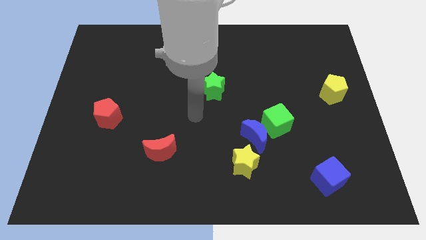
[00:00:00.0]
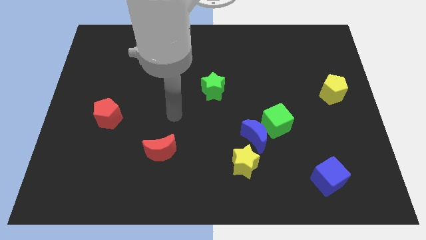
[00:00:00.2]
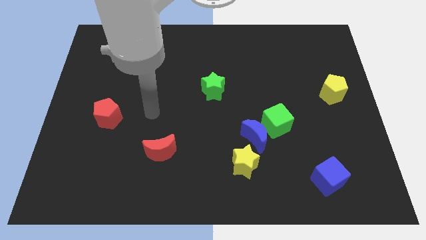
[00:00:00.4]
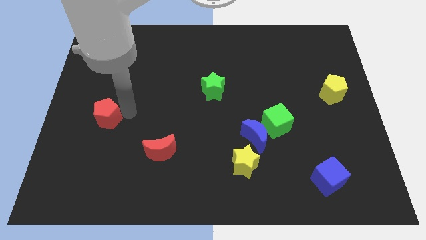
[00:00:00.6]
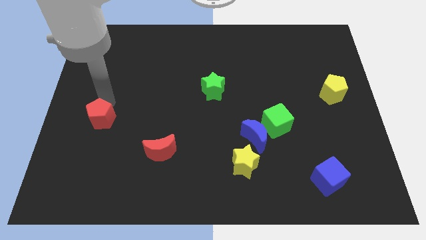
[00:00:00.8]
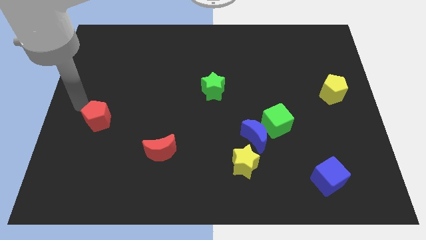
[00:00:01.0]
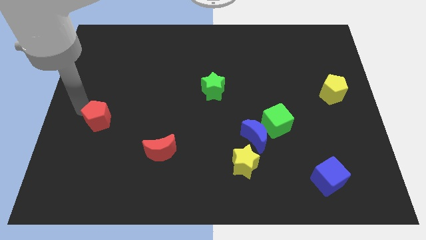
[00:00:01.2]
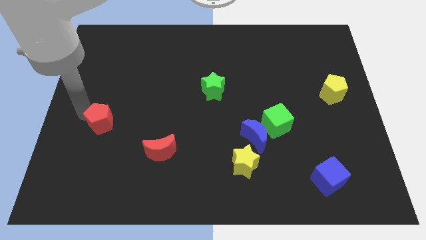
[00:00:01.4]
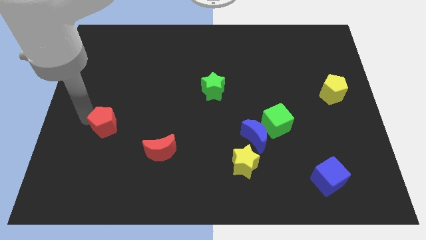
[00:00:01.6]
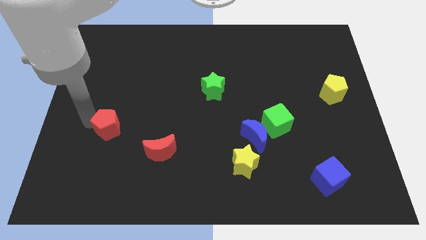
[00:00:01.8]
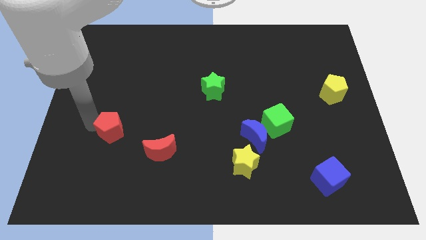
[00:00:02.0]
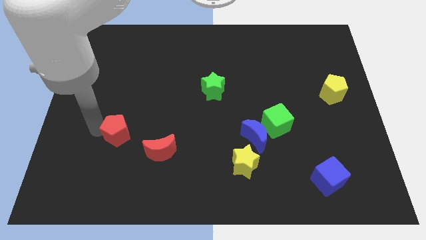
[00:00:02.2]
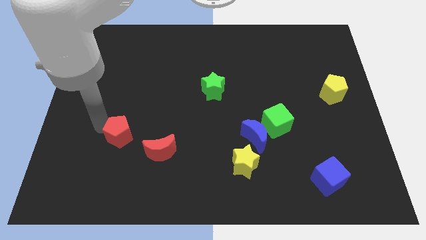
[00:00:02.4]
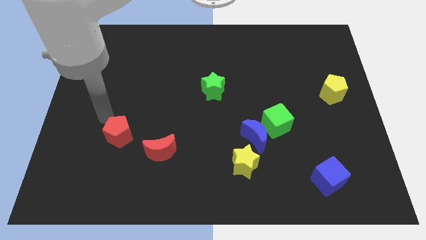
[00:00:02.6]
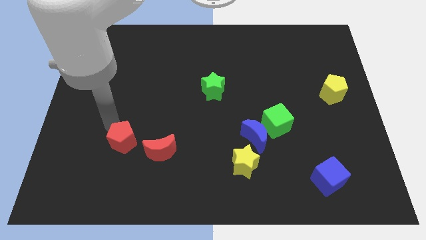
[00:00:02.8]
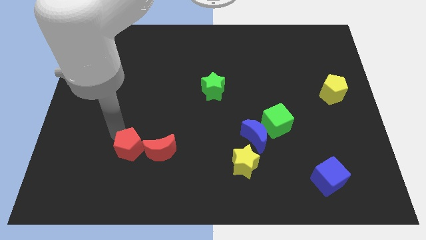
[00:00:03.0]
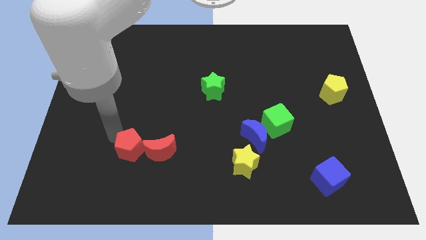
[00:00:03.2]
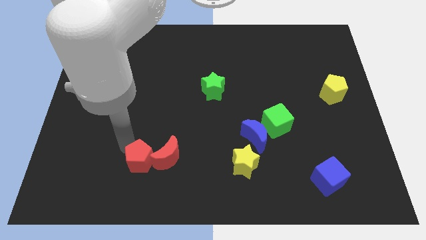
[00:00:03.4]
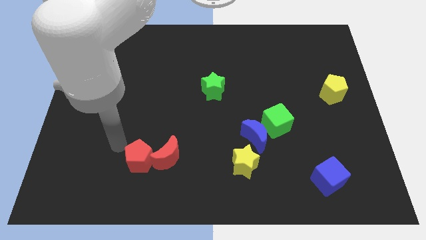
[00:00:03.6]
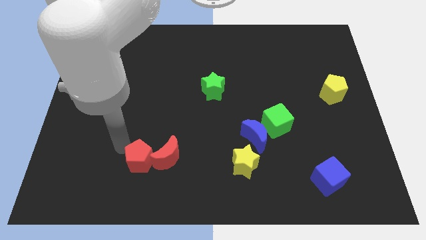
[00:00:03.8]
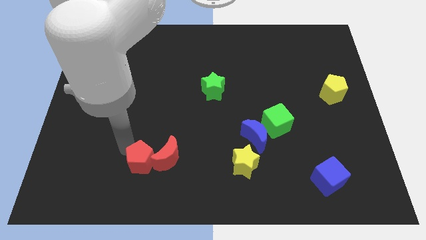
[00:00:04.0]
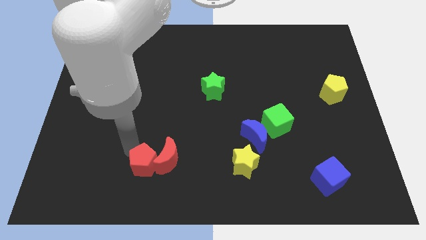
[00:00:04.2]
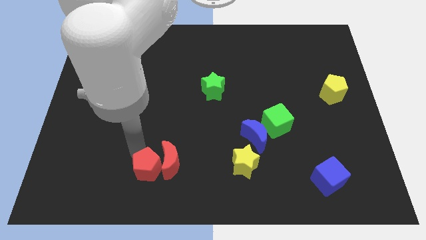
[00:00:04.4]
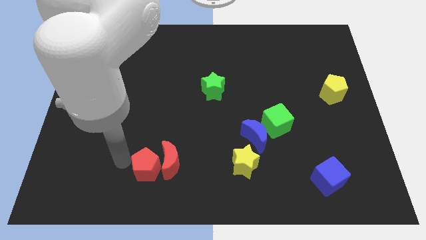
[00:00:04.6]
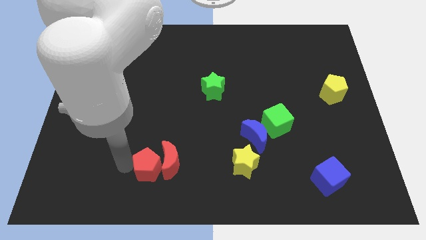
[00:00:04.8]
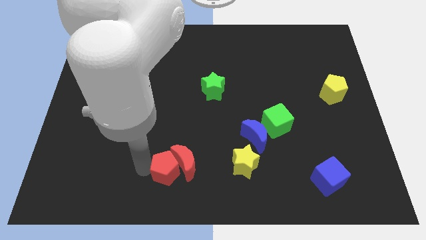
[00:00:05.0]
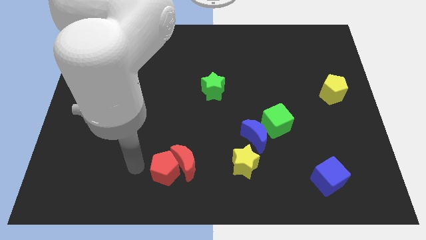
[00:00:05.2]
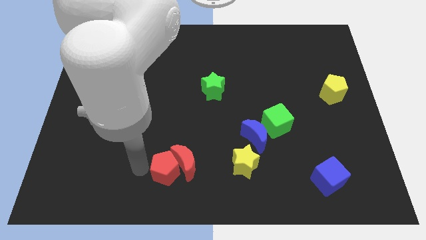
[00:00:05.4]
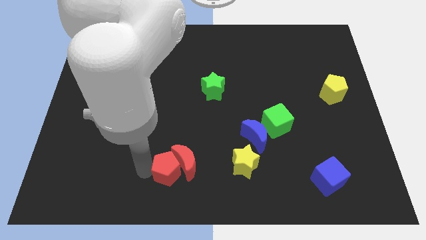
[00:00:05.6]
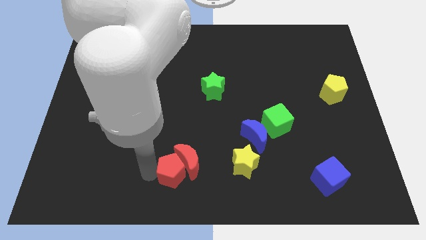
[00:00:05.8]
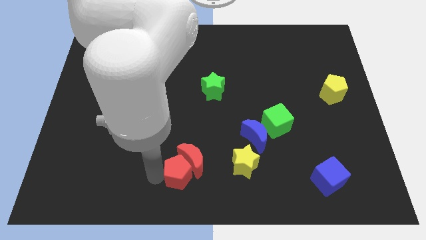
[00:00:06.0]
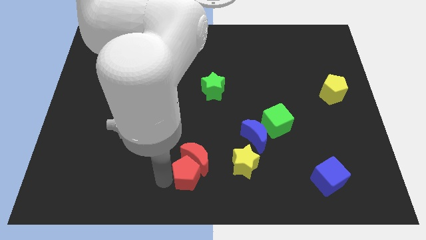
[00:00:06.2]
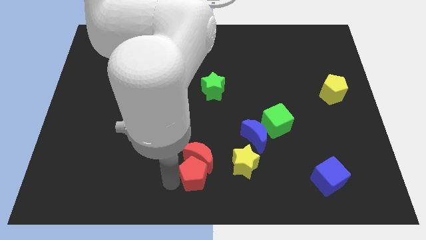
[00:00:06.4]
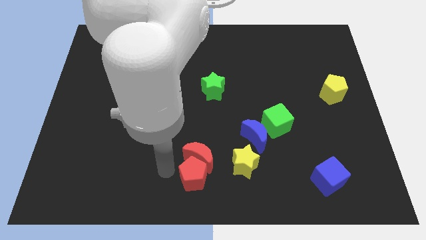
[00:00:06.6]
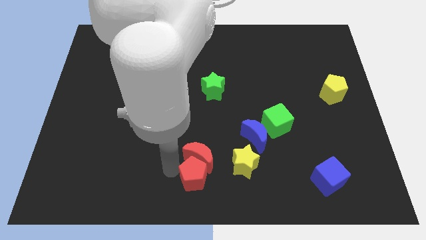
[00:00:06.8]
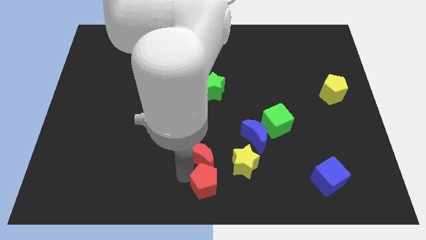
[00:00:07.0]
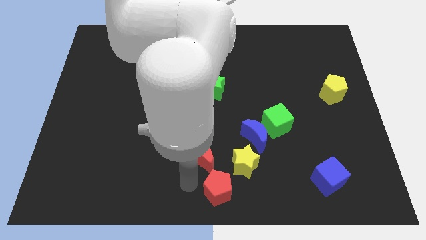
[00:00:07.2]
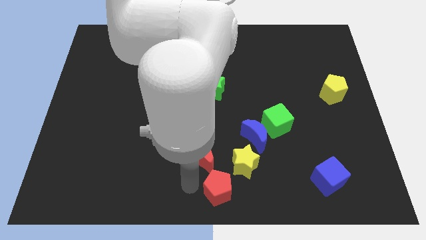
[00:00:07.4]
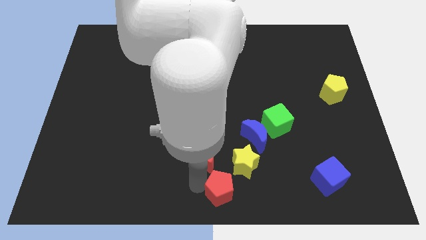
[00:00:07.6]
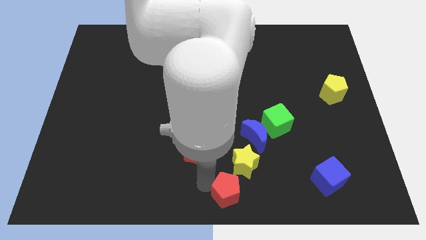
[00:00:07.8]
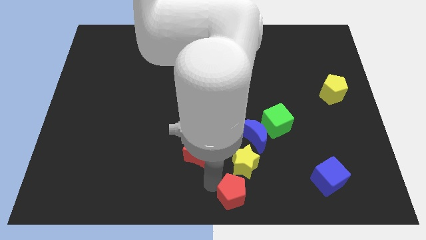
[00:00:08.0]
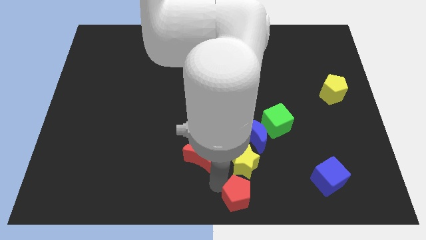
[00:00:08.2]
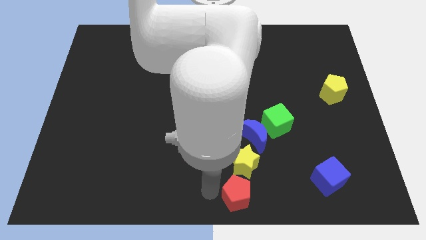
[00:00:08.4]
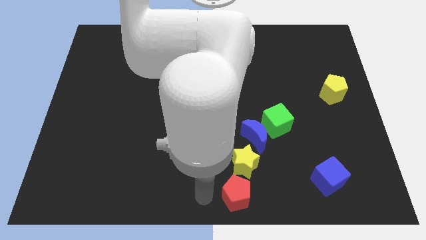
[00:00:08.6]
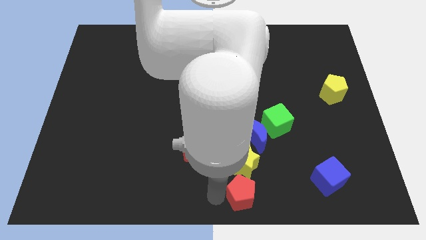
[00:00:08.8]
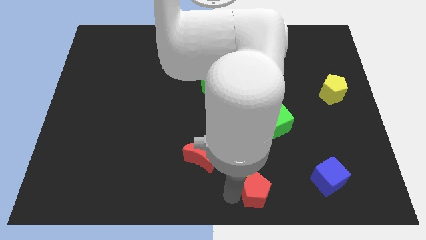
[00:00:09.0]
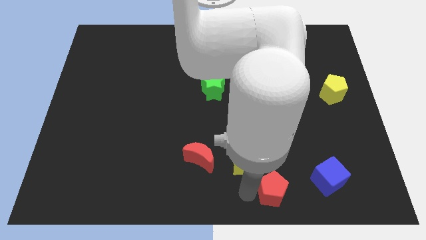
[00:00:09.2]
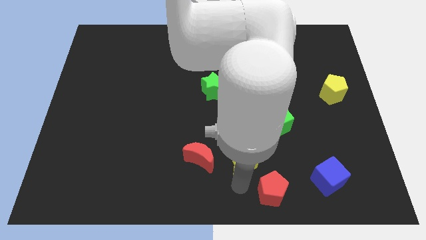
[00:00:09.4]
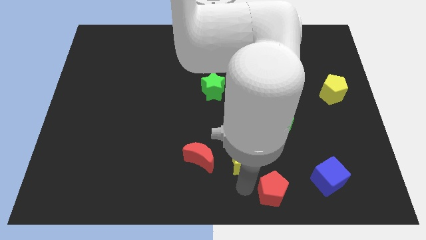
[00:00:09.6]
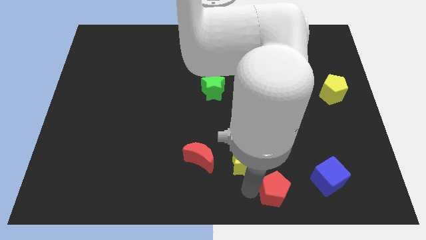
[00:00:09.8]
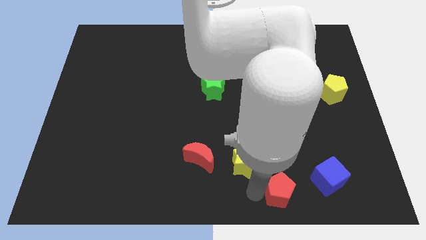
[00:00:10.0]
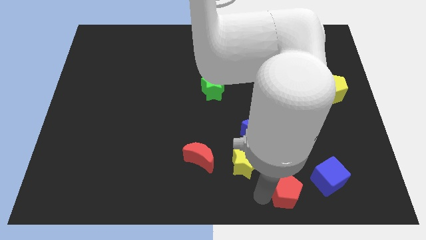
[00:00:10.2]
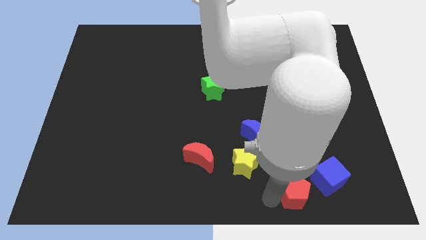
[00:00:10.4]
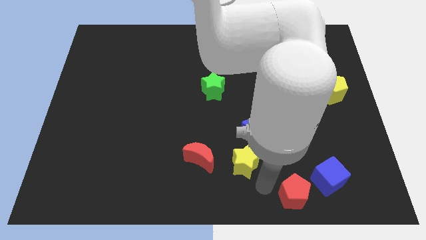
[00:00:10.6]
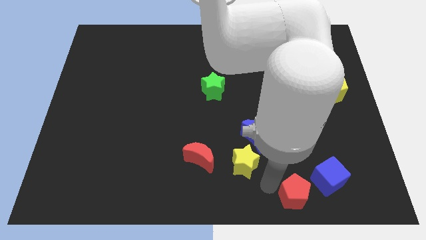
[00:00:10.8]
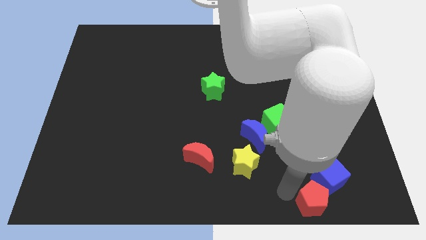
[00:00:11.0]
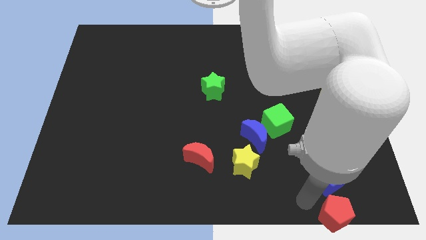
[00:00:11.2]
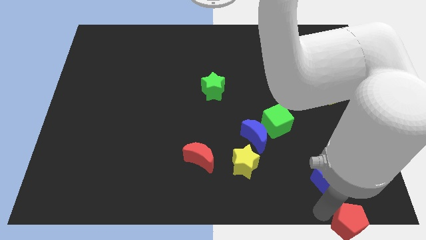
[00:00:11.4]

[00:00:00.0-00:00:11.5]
push the red pentagon to the bottom right of the board

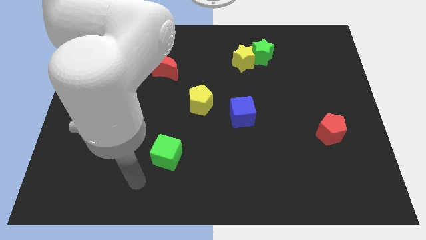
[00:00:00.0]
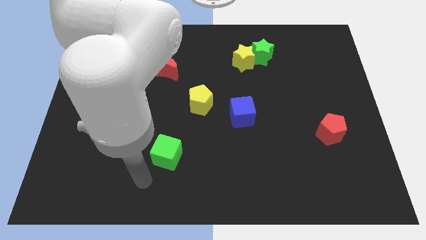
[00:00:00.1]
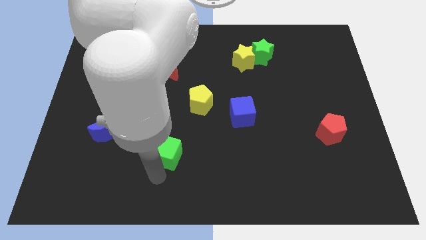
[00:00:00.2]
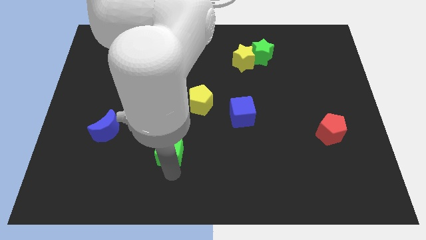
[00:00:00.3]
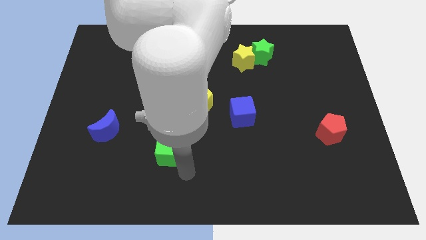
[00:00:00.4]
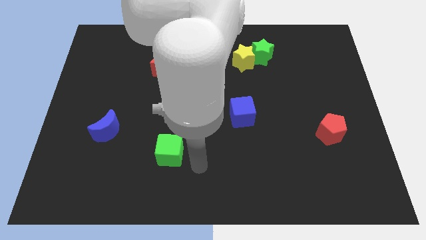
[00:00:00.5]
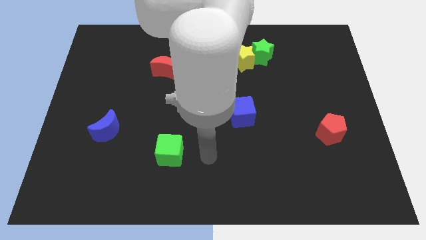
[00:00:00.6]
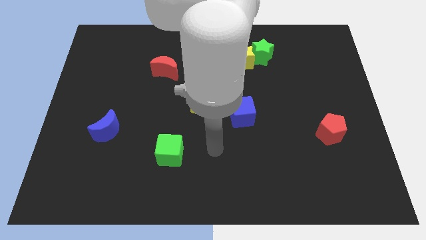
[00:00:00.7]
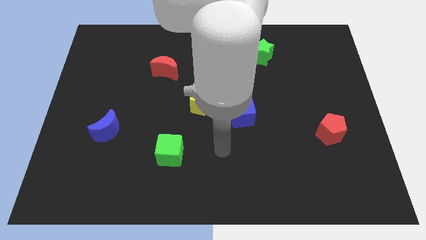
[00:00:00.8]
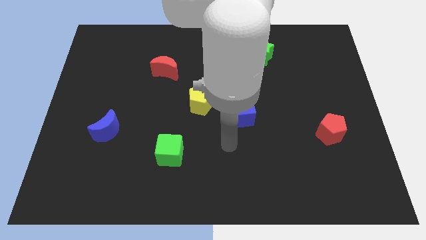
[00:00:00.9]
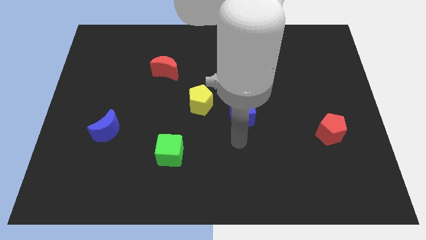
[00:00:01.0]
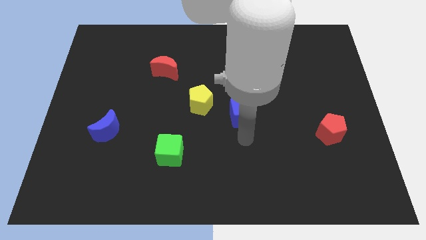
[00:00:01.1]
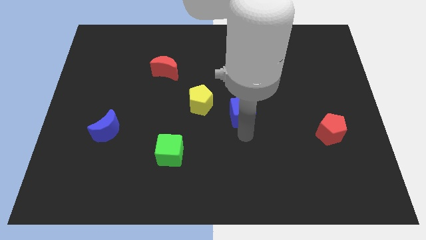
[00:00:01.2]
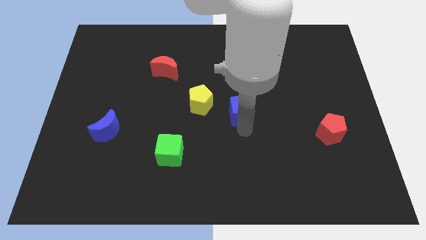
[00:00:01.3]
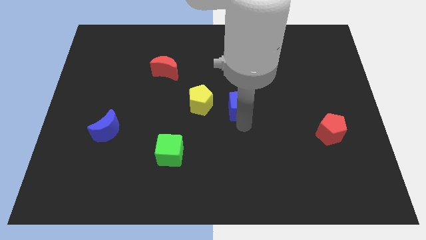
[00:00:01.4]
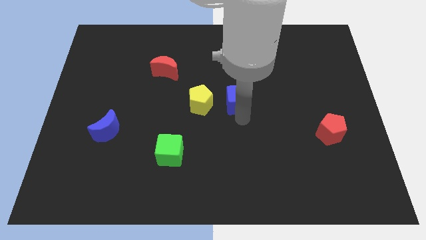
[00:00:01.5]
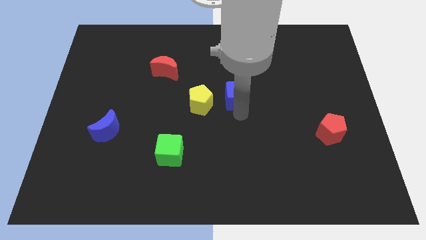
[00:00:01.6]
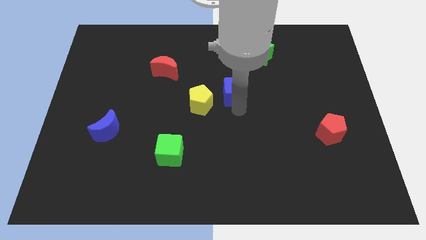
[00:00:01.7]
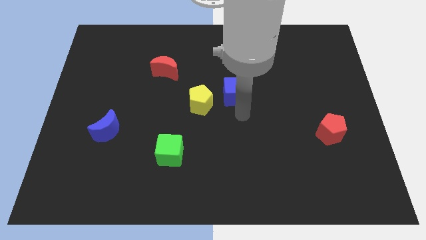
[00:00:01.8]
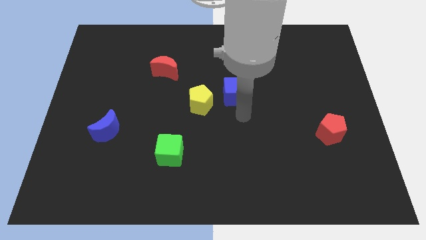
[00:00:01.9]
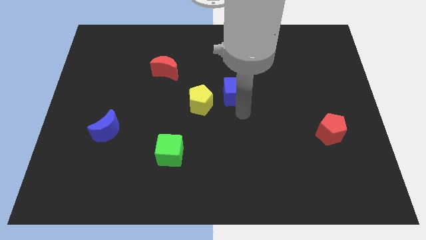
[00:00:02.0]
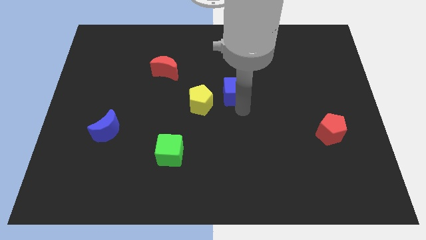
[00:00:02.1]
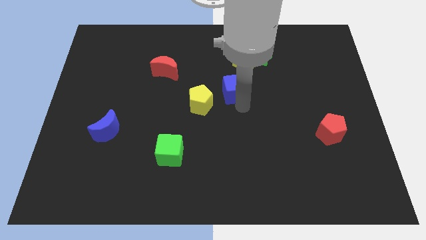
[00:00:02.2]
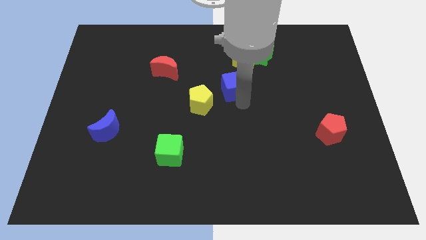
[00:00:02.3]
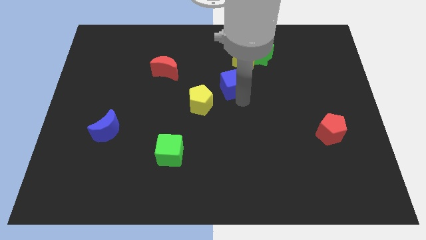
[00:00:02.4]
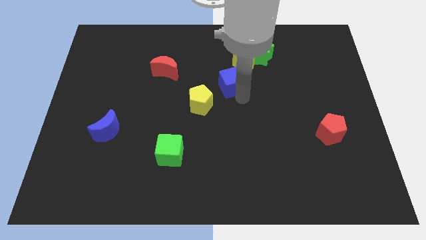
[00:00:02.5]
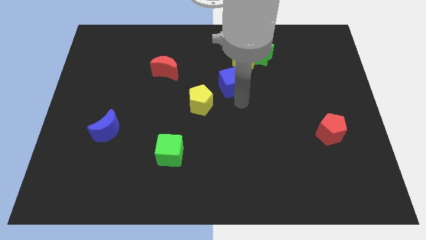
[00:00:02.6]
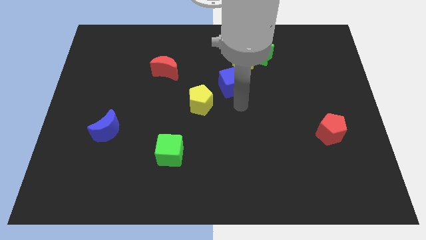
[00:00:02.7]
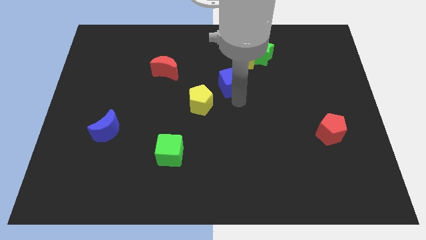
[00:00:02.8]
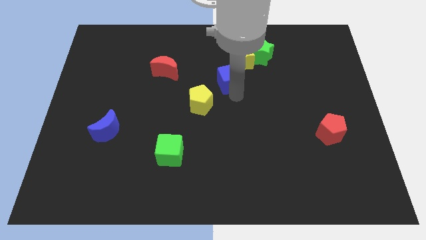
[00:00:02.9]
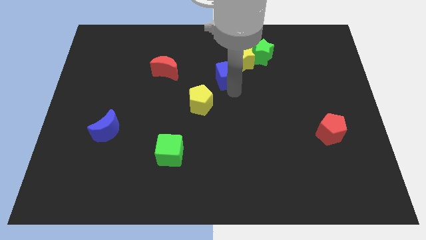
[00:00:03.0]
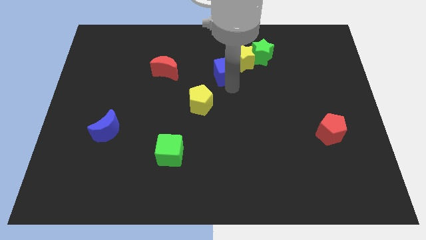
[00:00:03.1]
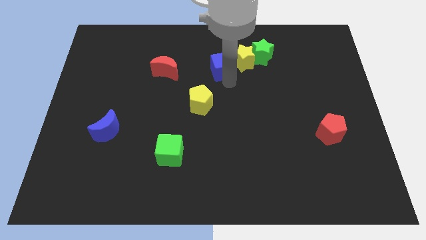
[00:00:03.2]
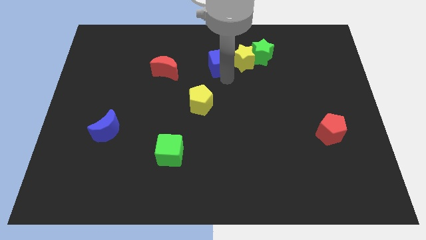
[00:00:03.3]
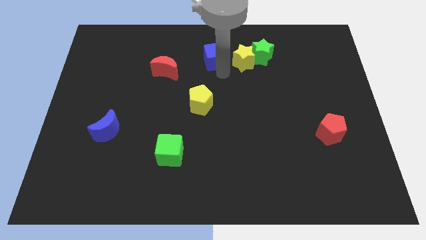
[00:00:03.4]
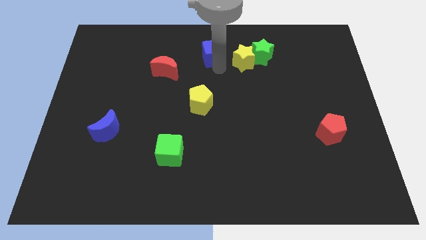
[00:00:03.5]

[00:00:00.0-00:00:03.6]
slide the blue cube to the top
